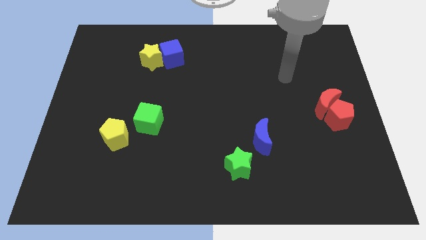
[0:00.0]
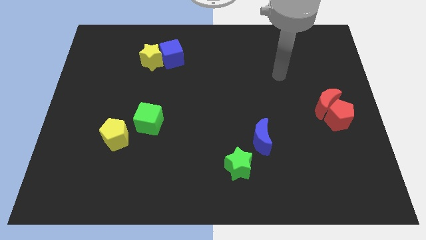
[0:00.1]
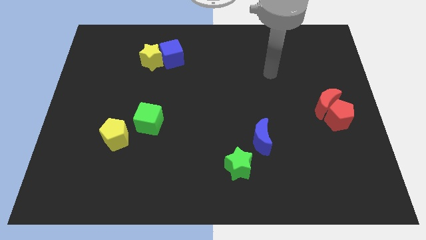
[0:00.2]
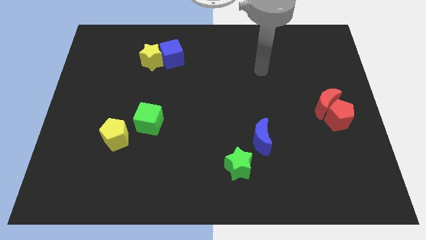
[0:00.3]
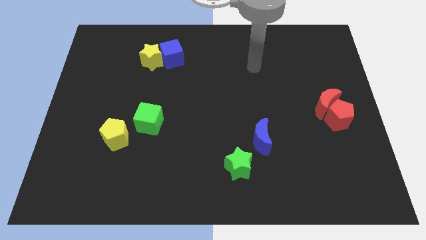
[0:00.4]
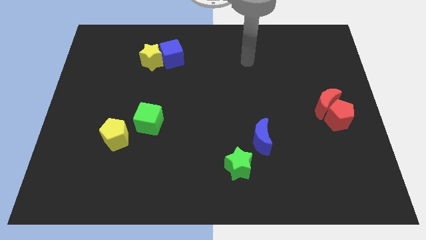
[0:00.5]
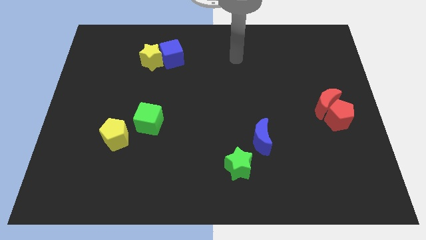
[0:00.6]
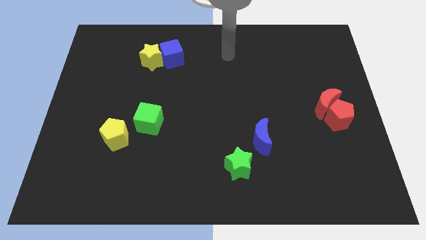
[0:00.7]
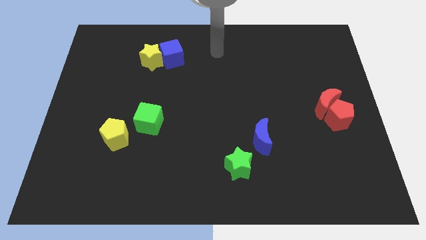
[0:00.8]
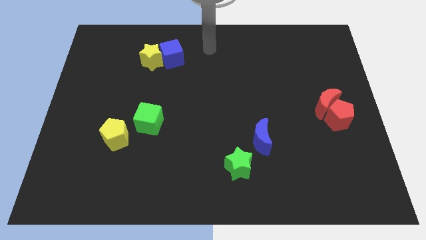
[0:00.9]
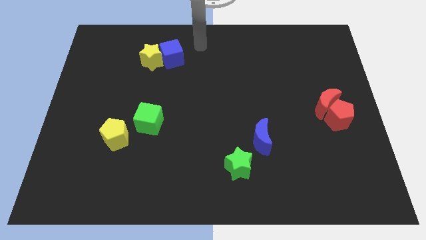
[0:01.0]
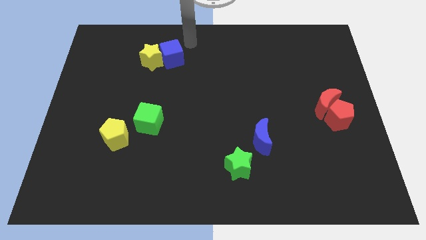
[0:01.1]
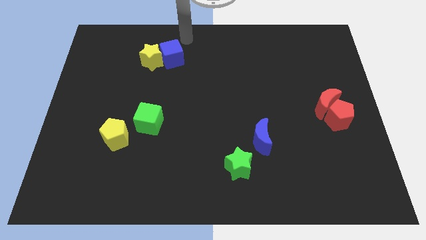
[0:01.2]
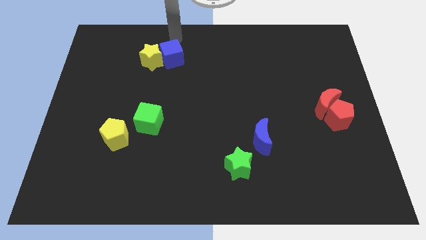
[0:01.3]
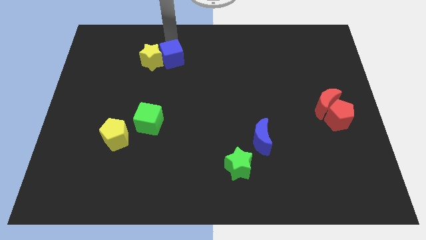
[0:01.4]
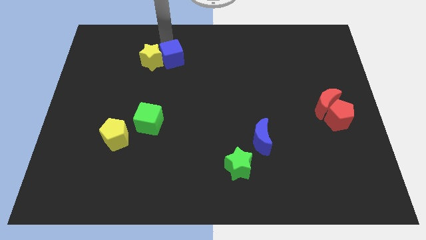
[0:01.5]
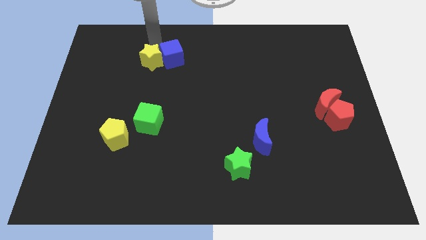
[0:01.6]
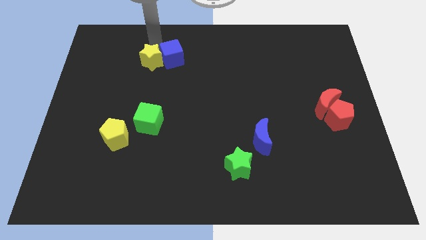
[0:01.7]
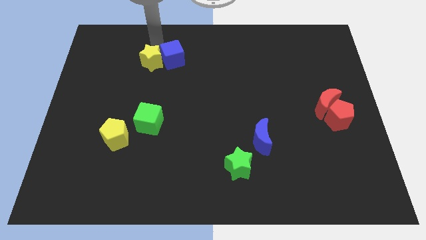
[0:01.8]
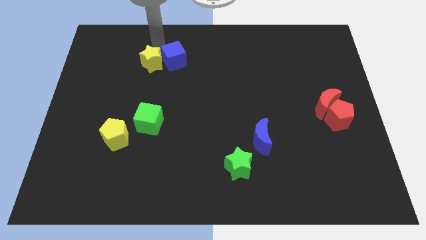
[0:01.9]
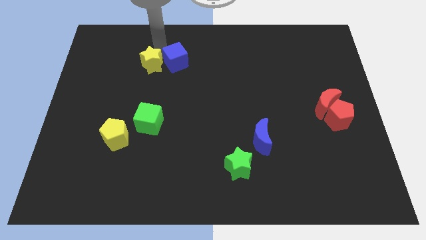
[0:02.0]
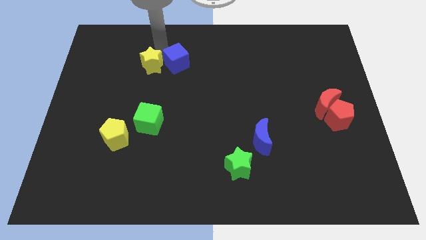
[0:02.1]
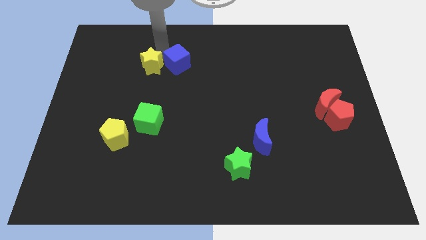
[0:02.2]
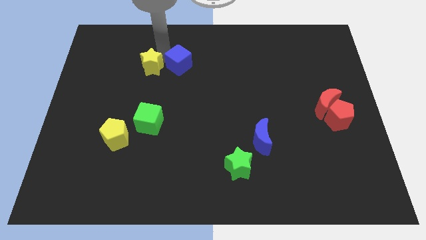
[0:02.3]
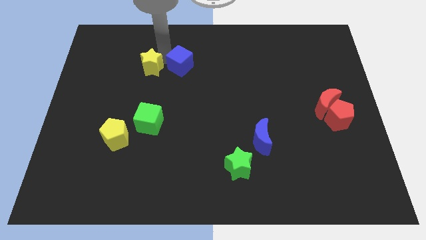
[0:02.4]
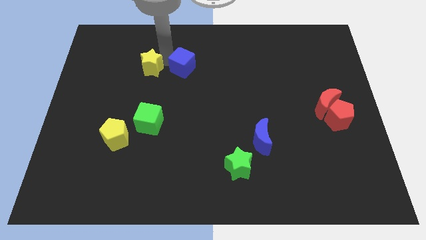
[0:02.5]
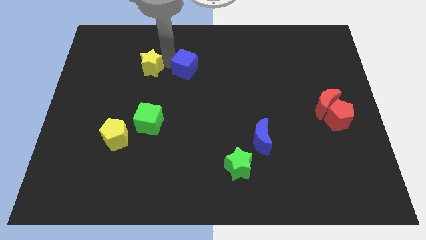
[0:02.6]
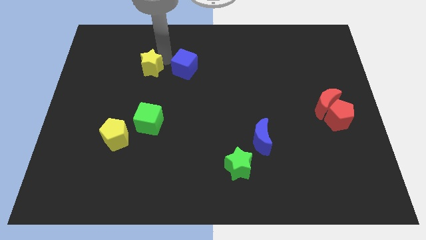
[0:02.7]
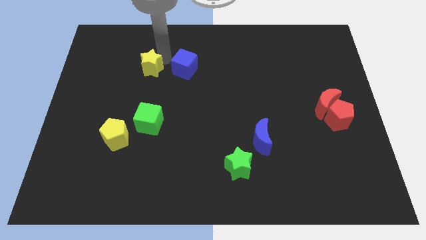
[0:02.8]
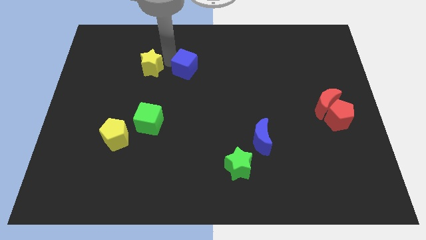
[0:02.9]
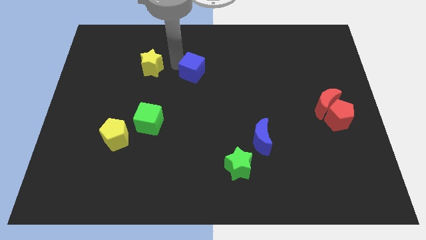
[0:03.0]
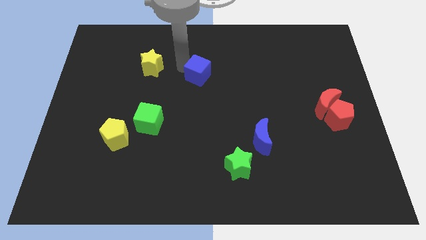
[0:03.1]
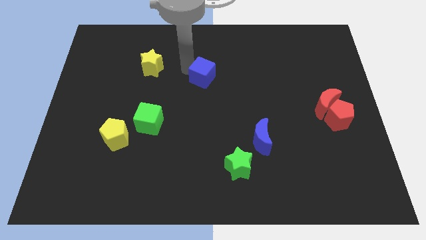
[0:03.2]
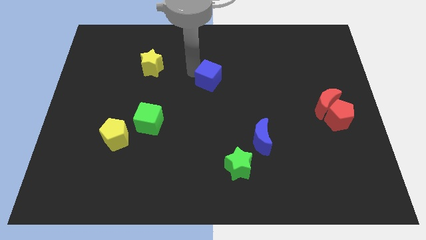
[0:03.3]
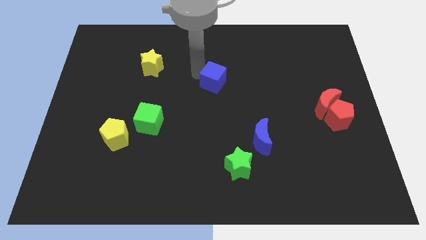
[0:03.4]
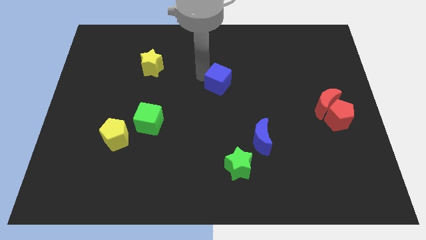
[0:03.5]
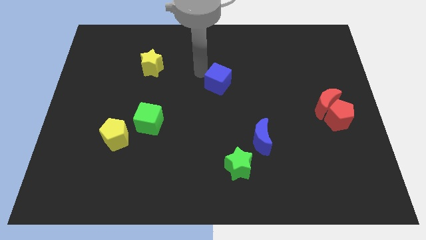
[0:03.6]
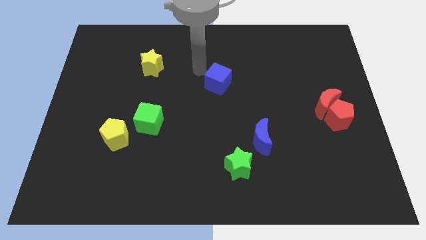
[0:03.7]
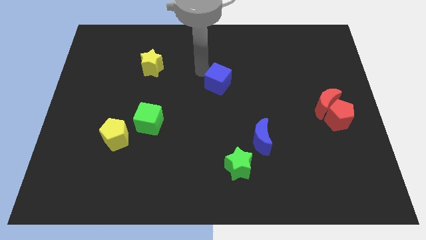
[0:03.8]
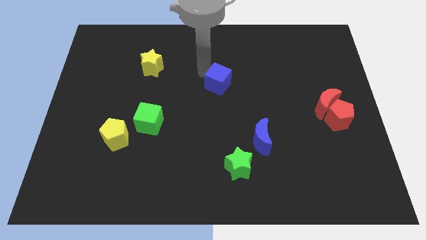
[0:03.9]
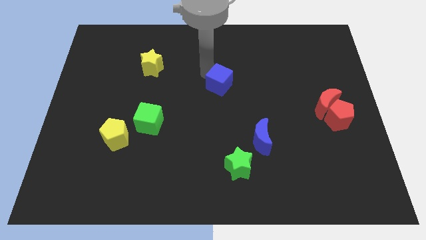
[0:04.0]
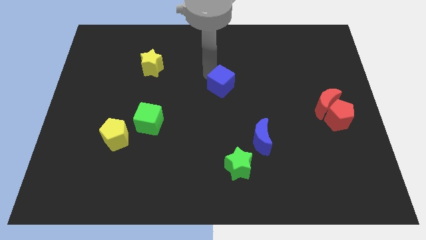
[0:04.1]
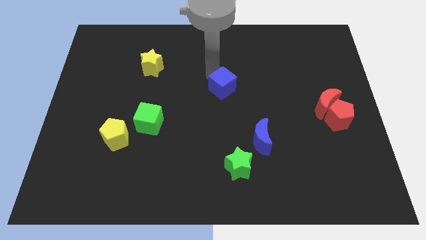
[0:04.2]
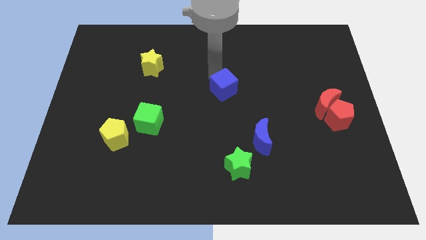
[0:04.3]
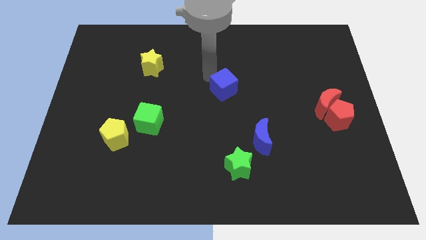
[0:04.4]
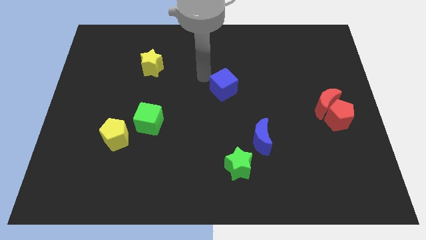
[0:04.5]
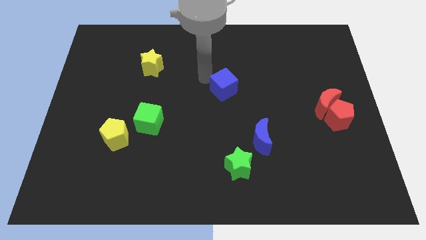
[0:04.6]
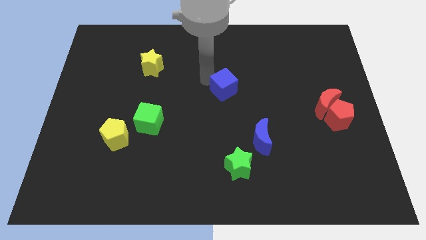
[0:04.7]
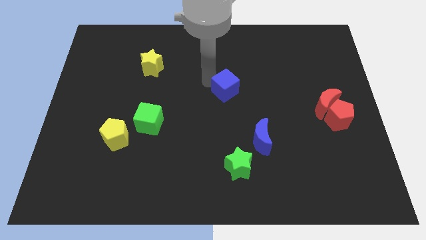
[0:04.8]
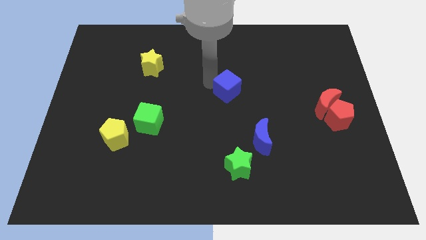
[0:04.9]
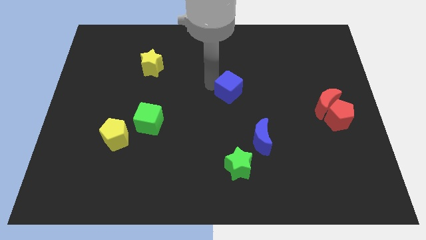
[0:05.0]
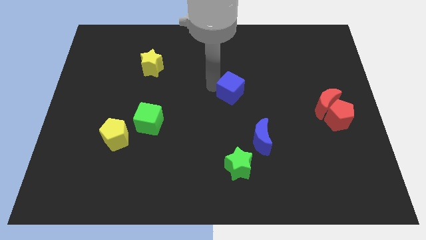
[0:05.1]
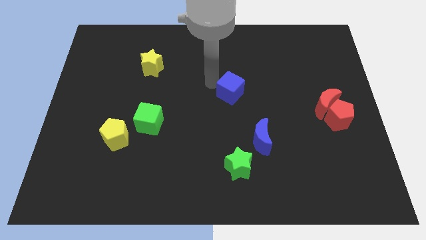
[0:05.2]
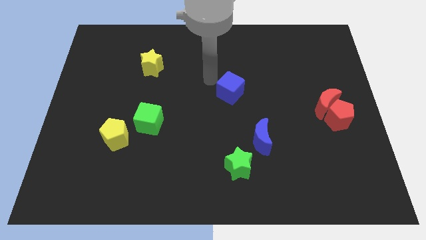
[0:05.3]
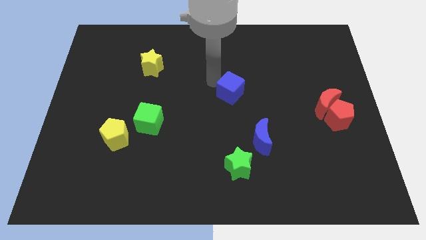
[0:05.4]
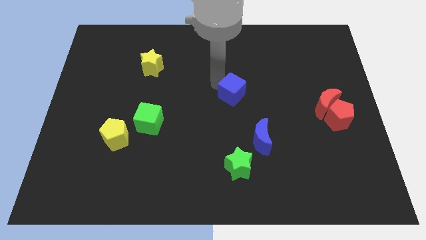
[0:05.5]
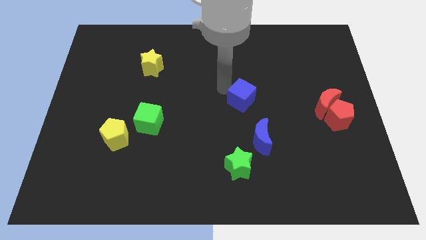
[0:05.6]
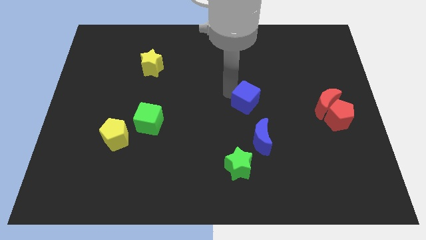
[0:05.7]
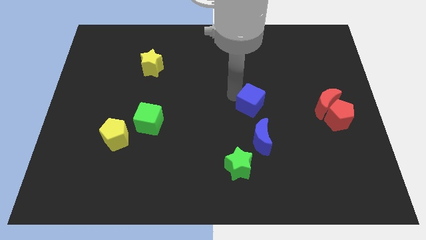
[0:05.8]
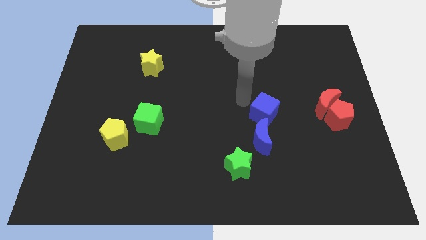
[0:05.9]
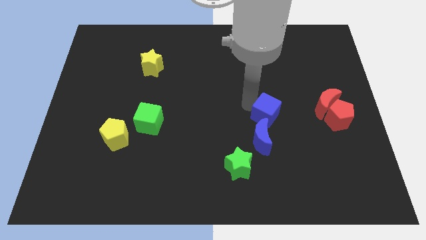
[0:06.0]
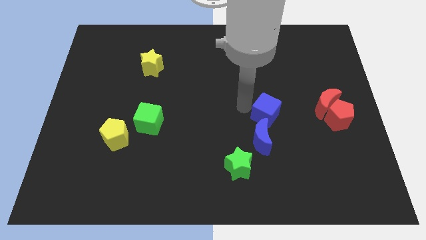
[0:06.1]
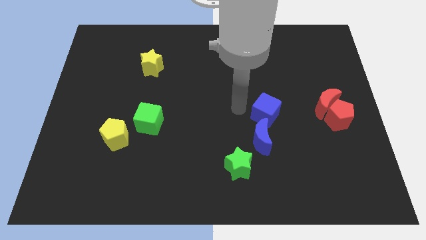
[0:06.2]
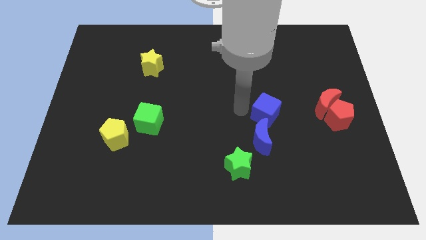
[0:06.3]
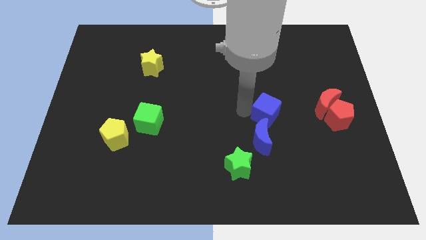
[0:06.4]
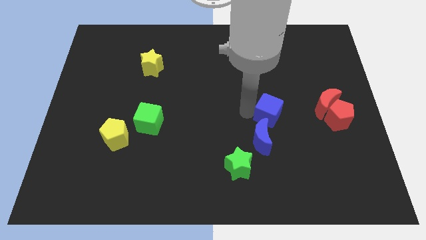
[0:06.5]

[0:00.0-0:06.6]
move the blue cube just left of the red pentagon
